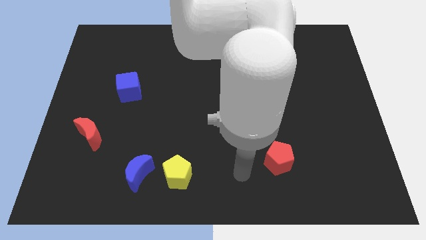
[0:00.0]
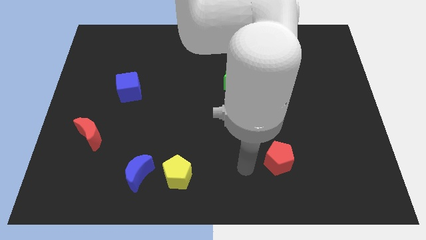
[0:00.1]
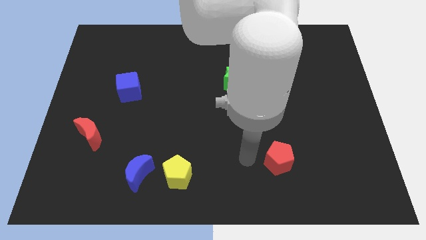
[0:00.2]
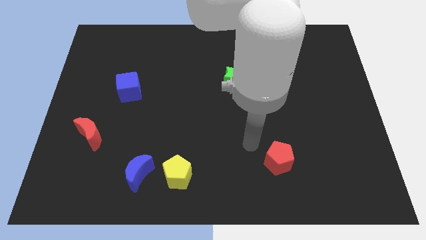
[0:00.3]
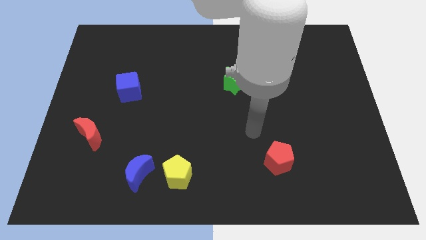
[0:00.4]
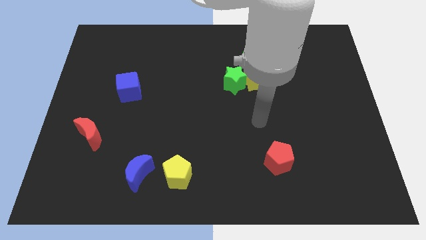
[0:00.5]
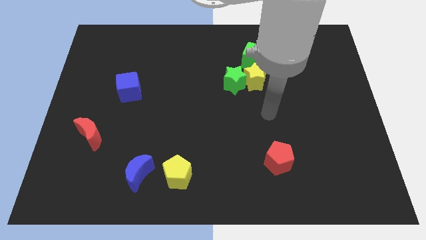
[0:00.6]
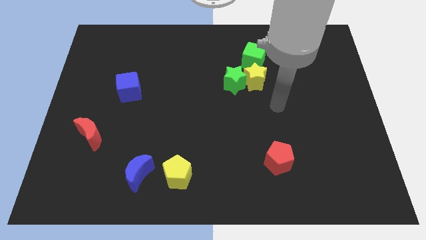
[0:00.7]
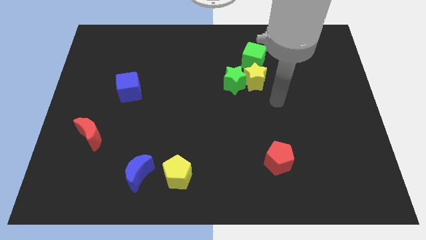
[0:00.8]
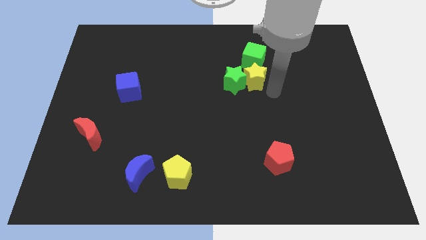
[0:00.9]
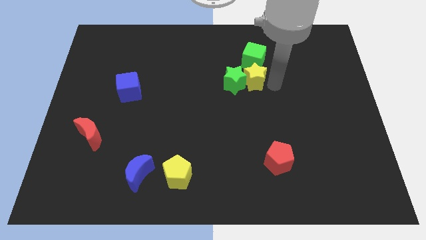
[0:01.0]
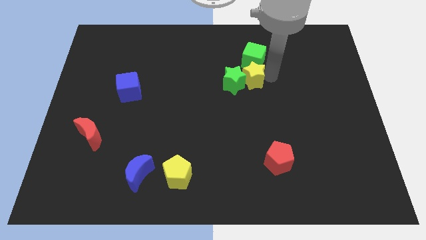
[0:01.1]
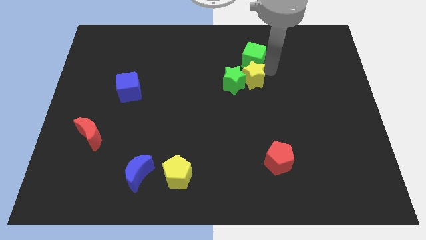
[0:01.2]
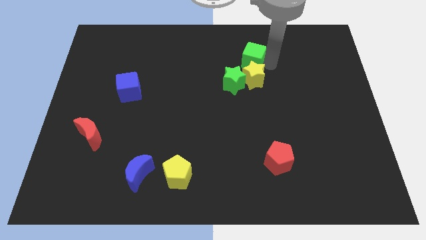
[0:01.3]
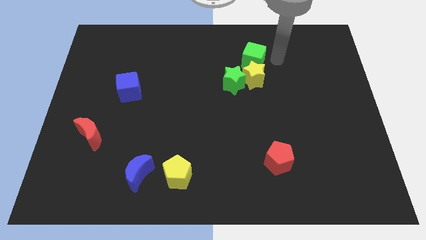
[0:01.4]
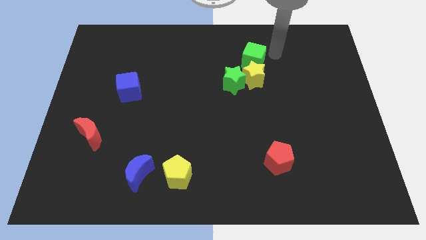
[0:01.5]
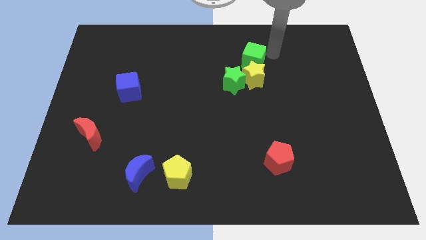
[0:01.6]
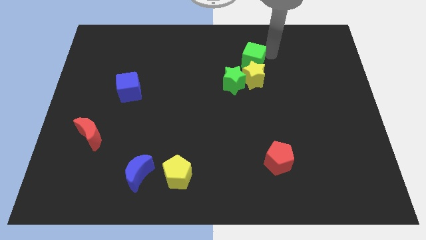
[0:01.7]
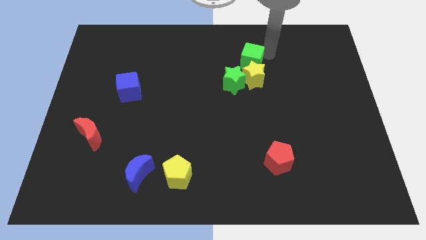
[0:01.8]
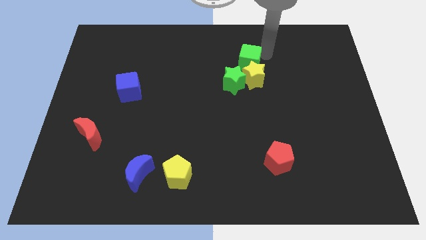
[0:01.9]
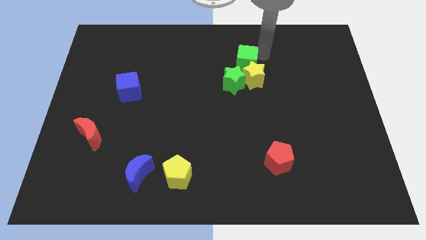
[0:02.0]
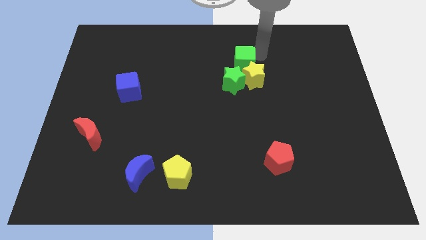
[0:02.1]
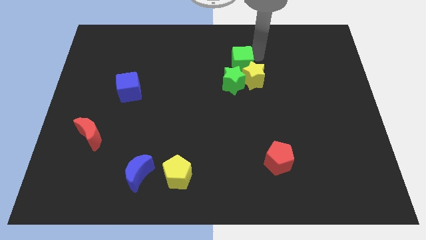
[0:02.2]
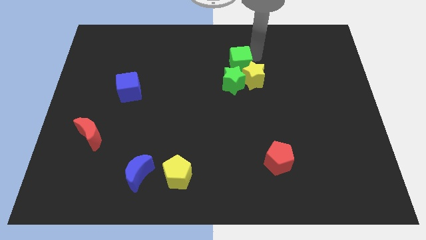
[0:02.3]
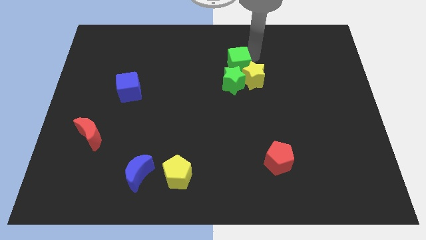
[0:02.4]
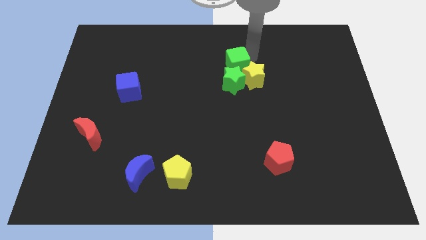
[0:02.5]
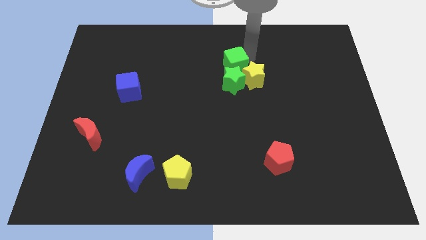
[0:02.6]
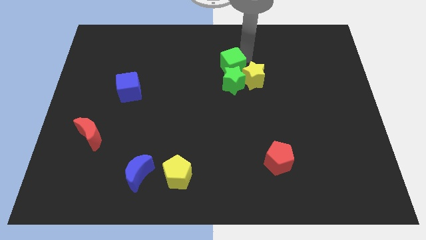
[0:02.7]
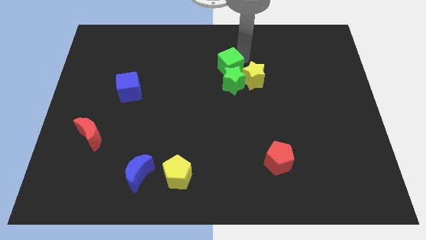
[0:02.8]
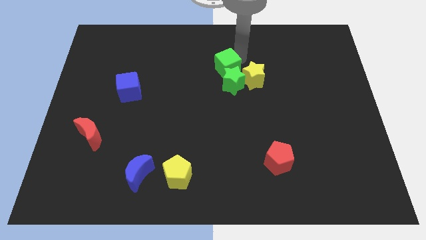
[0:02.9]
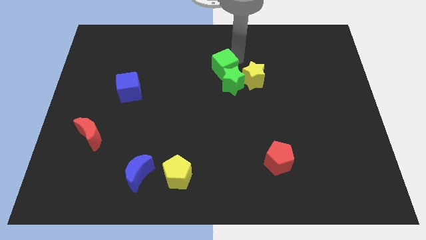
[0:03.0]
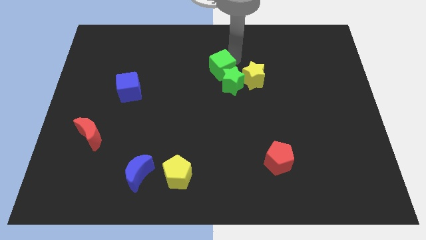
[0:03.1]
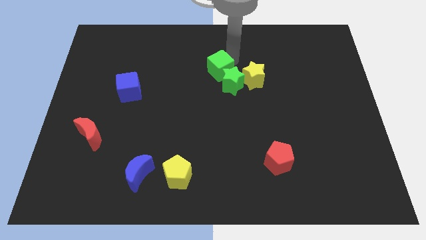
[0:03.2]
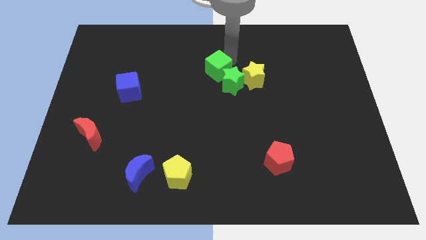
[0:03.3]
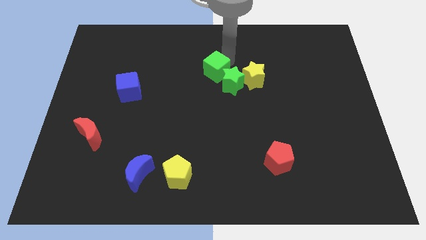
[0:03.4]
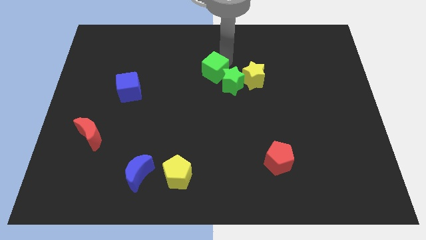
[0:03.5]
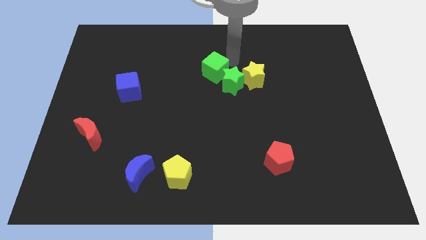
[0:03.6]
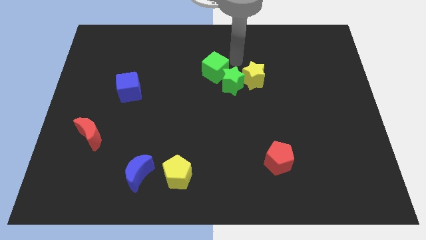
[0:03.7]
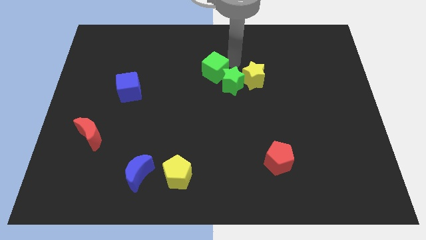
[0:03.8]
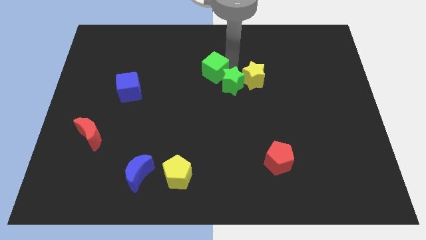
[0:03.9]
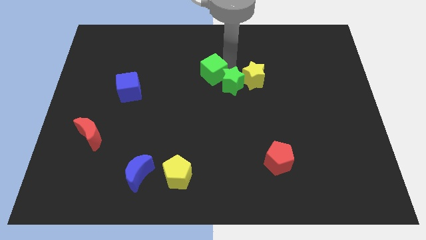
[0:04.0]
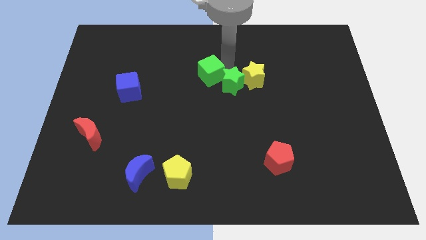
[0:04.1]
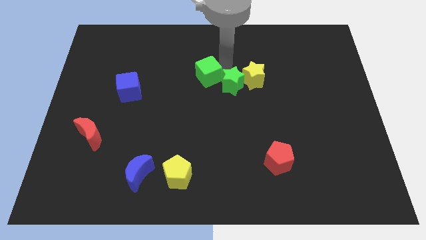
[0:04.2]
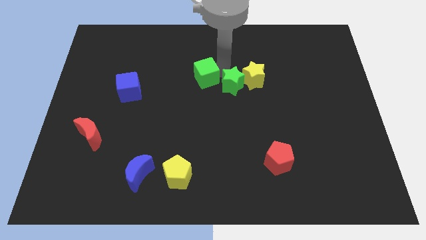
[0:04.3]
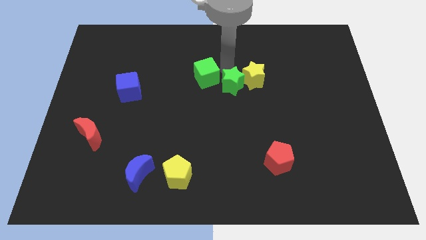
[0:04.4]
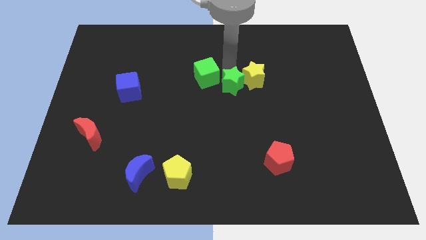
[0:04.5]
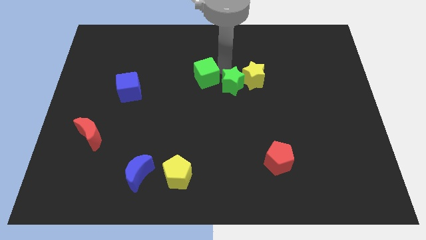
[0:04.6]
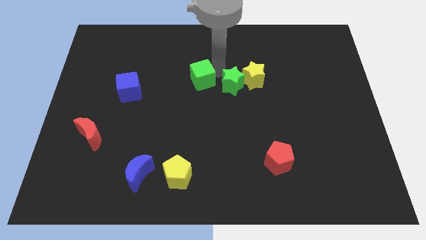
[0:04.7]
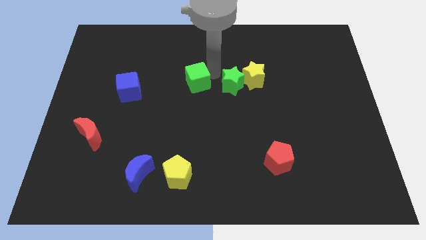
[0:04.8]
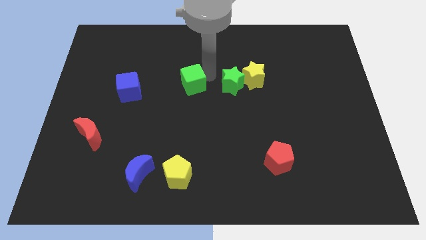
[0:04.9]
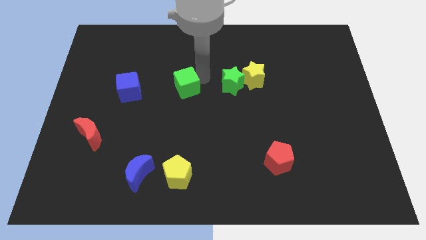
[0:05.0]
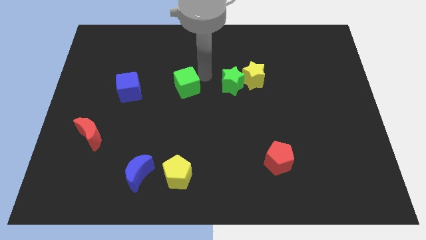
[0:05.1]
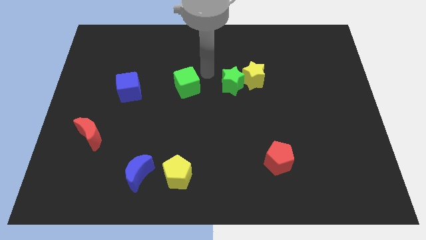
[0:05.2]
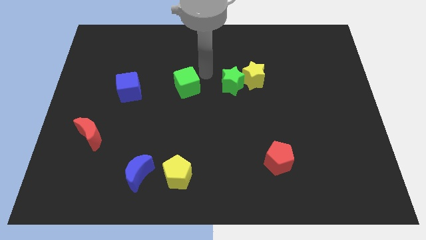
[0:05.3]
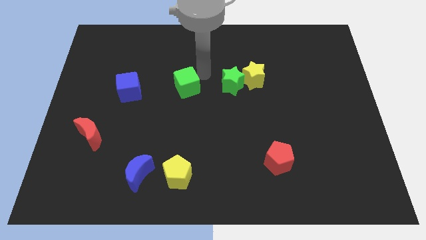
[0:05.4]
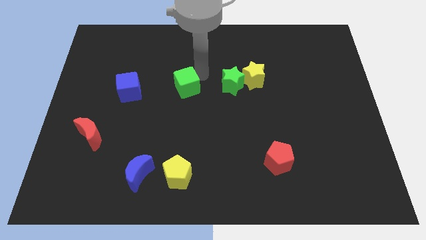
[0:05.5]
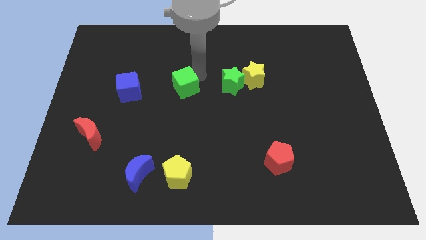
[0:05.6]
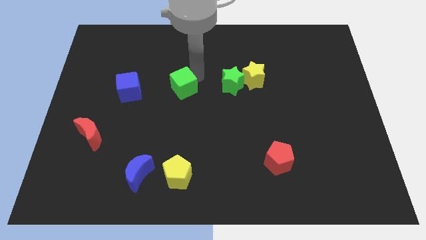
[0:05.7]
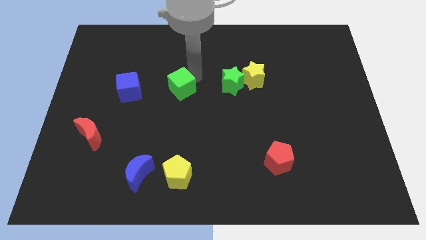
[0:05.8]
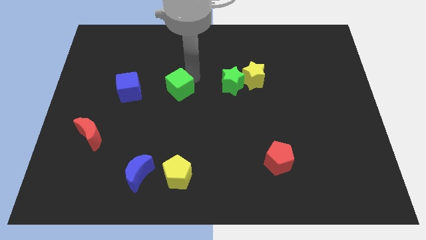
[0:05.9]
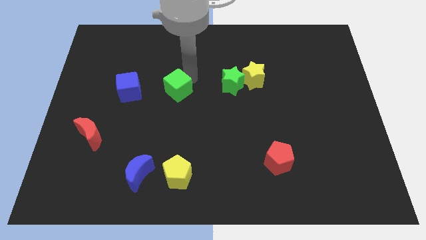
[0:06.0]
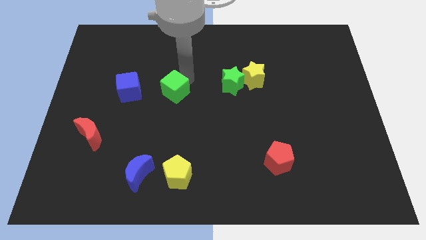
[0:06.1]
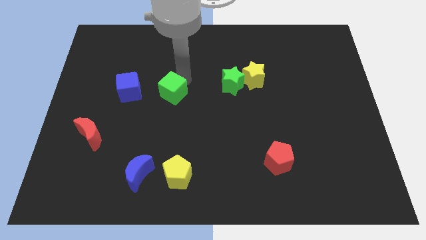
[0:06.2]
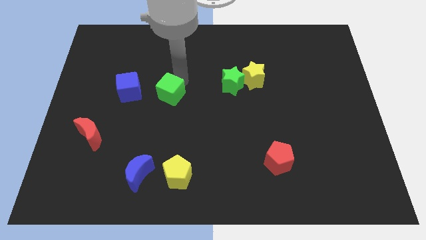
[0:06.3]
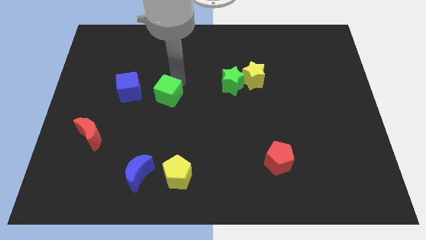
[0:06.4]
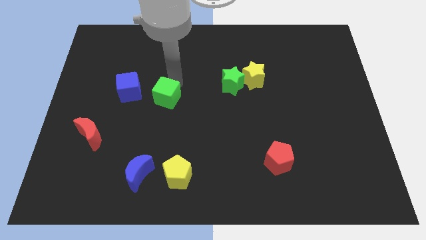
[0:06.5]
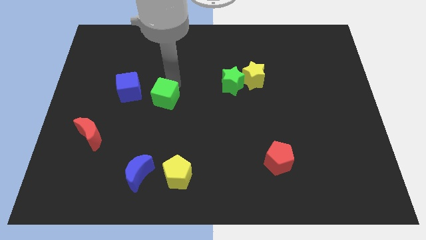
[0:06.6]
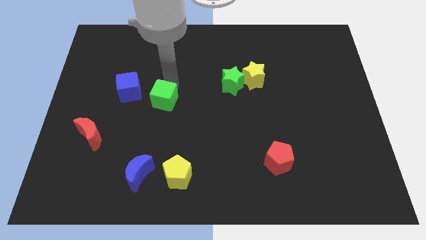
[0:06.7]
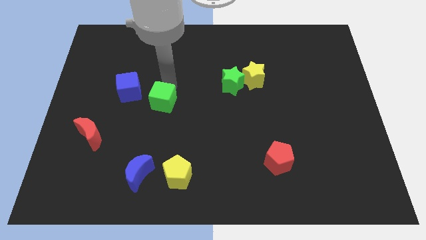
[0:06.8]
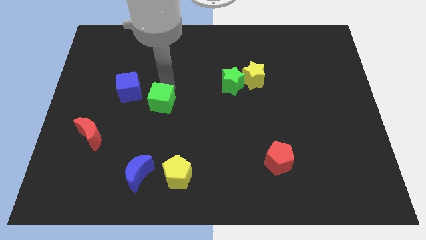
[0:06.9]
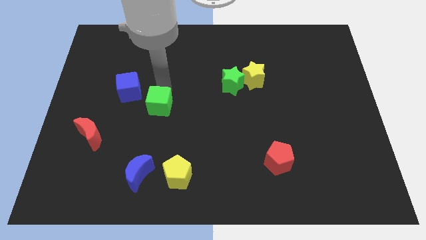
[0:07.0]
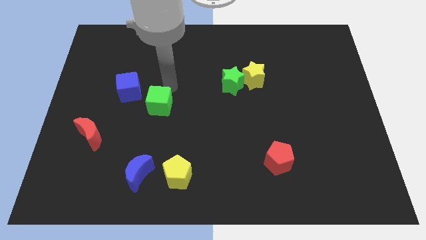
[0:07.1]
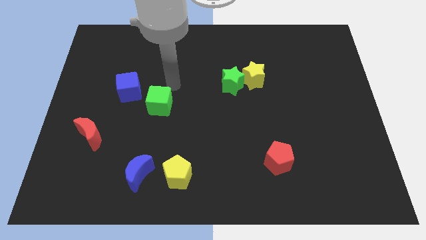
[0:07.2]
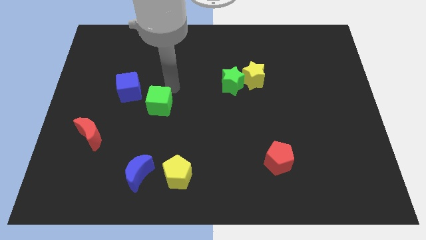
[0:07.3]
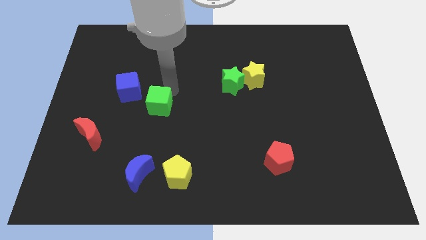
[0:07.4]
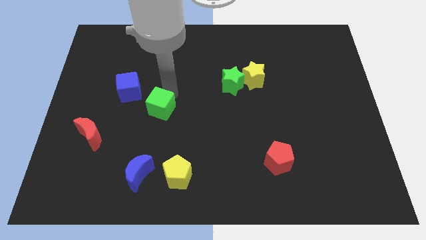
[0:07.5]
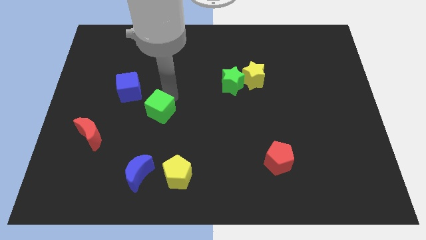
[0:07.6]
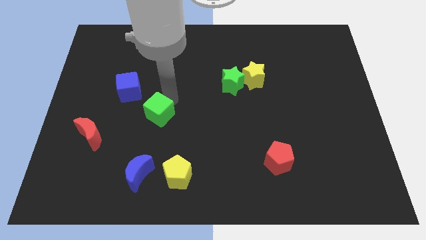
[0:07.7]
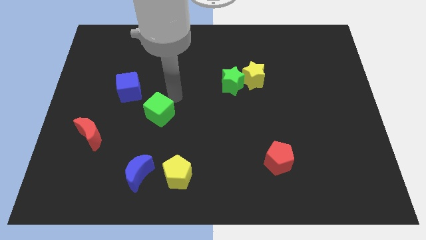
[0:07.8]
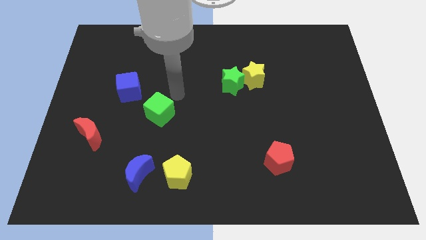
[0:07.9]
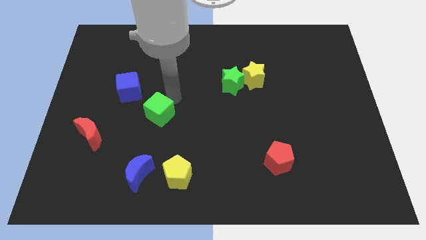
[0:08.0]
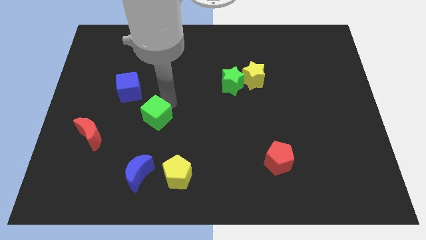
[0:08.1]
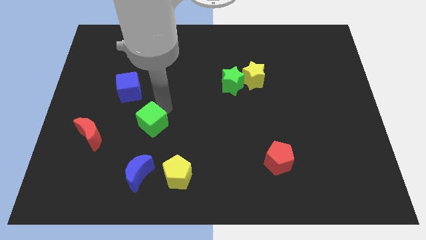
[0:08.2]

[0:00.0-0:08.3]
put the green cube to the right of the red moon
